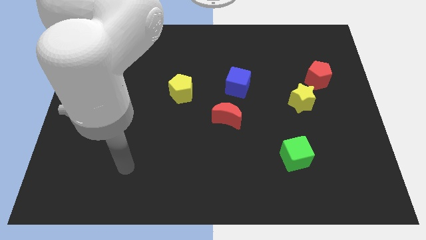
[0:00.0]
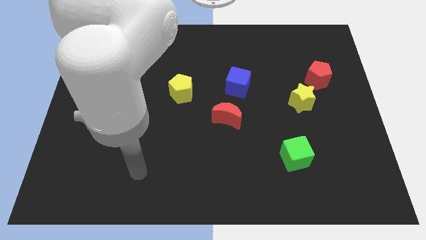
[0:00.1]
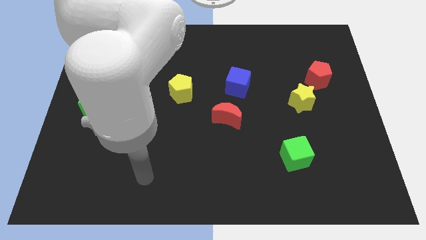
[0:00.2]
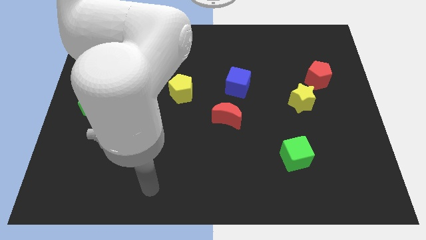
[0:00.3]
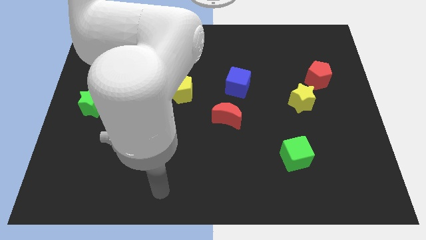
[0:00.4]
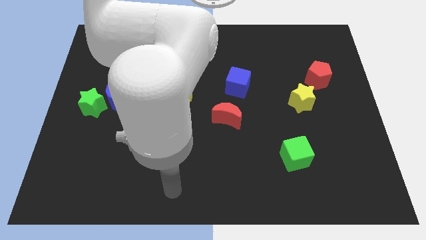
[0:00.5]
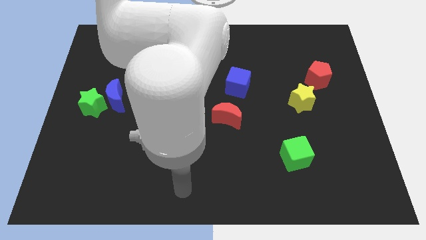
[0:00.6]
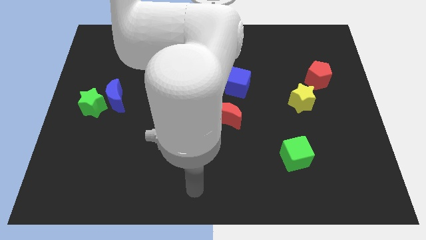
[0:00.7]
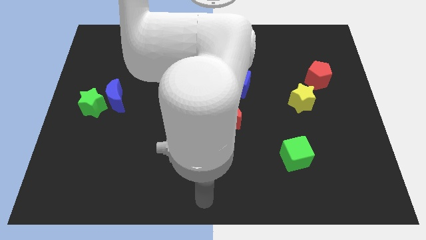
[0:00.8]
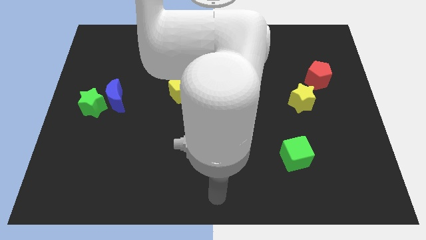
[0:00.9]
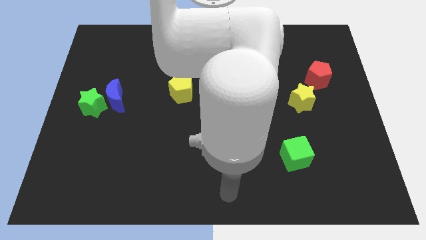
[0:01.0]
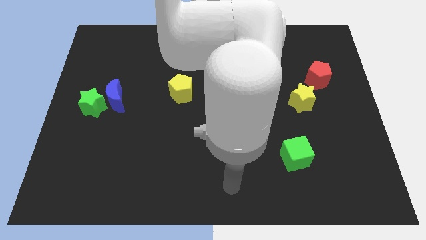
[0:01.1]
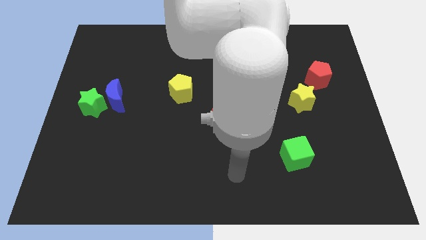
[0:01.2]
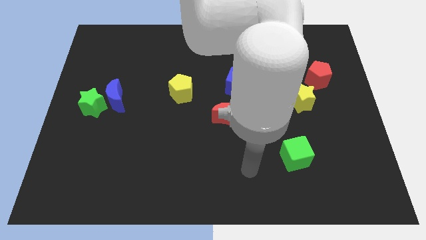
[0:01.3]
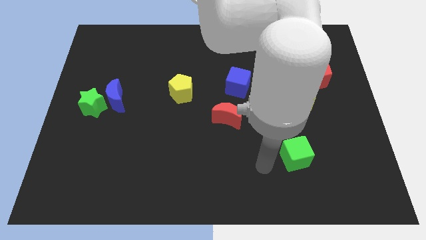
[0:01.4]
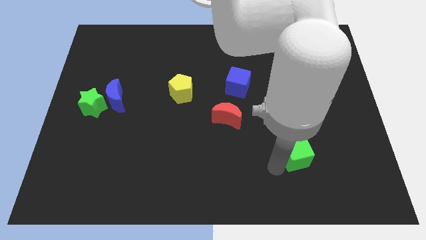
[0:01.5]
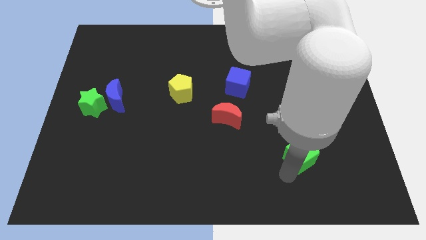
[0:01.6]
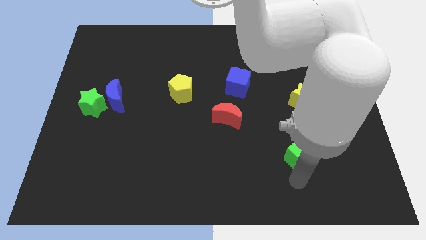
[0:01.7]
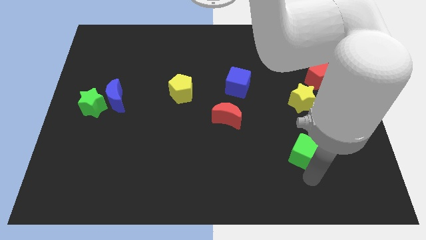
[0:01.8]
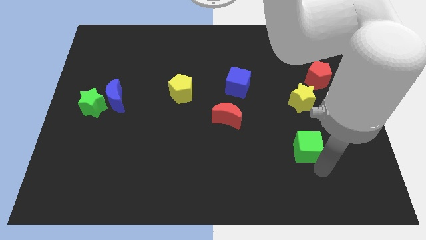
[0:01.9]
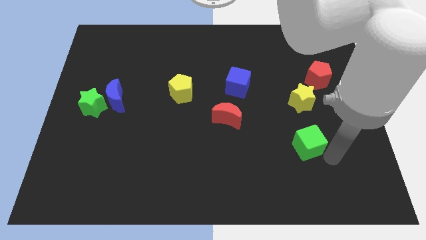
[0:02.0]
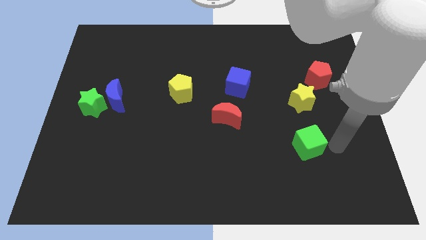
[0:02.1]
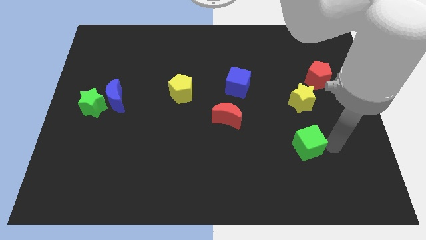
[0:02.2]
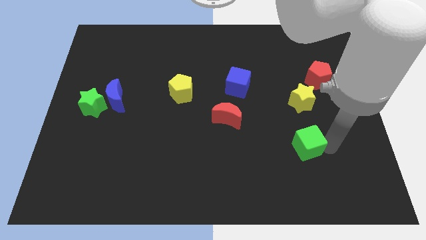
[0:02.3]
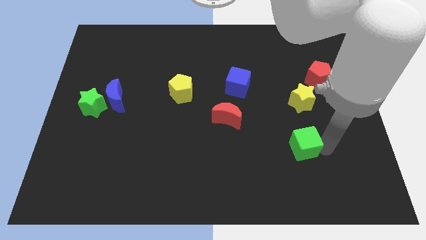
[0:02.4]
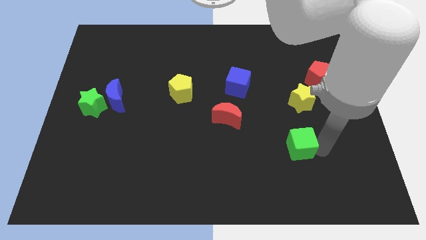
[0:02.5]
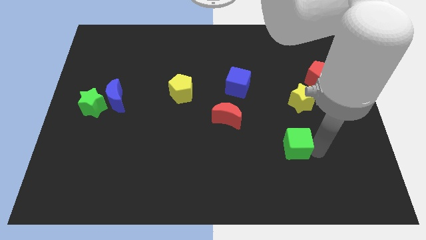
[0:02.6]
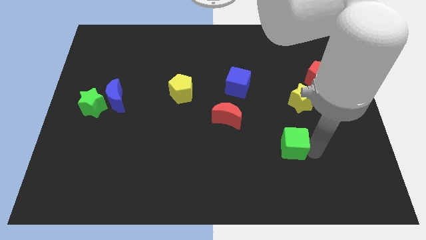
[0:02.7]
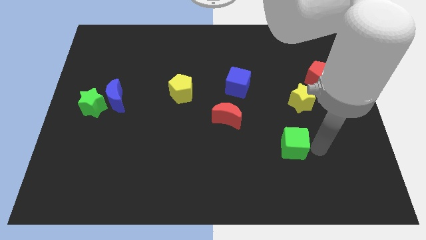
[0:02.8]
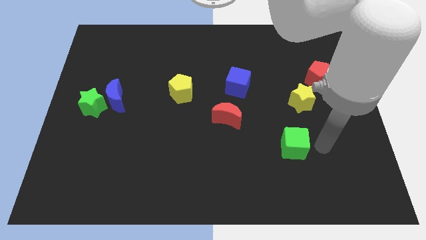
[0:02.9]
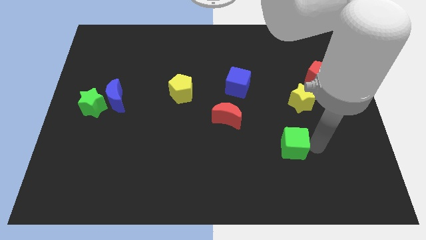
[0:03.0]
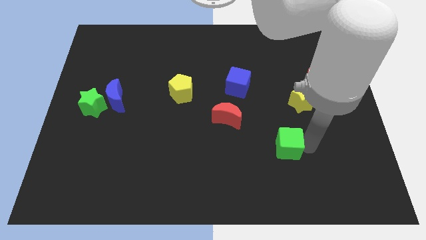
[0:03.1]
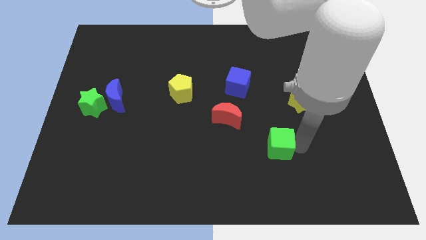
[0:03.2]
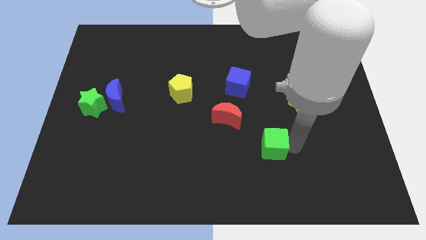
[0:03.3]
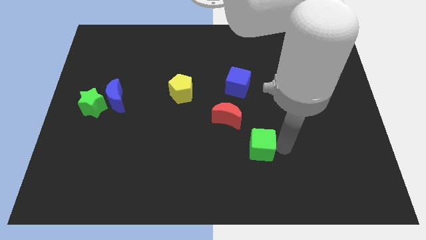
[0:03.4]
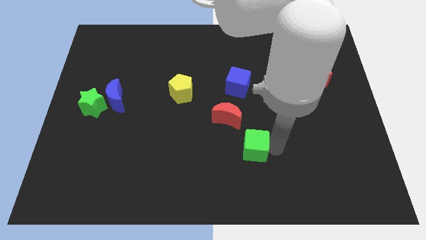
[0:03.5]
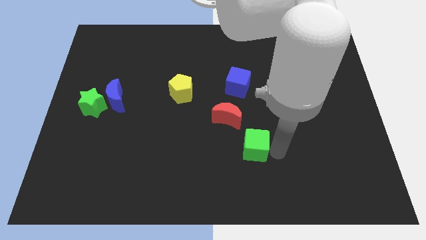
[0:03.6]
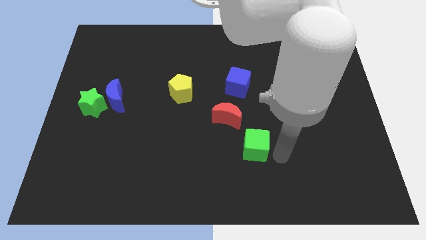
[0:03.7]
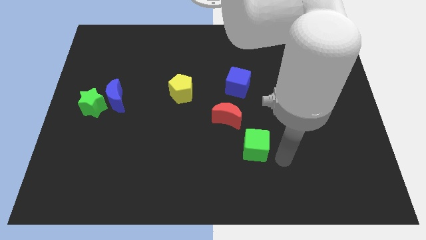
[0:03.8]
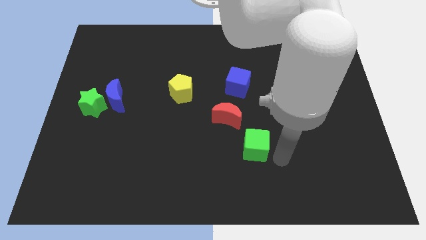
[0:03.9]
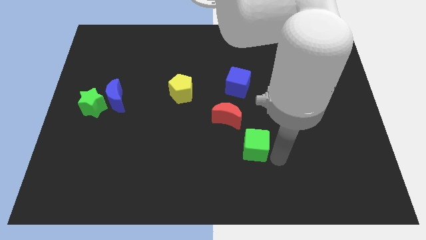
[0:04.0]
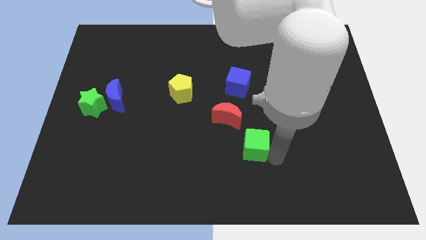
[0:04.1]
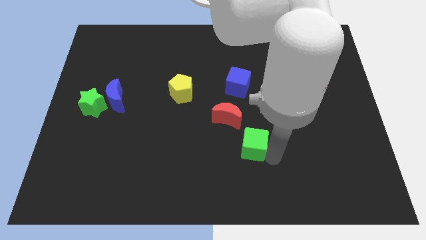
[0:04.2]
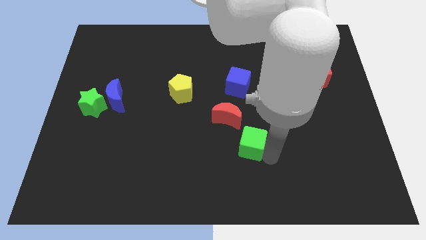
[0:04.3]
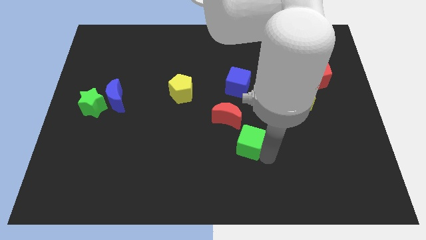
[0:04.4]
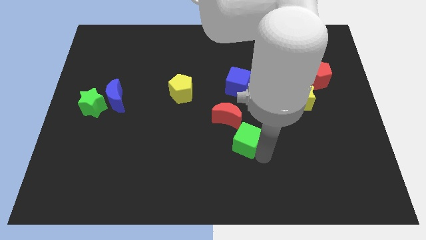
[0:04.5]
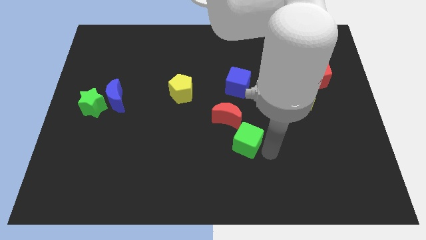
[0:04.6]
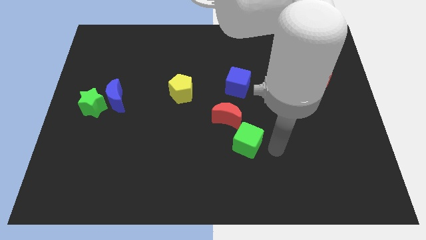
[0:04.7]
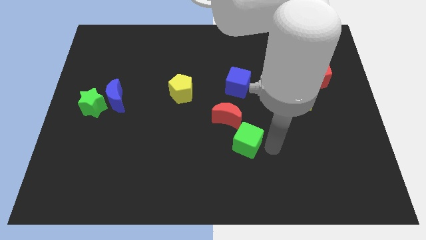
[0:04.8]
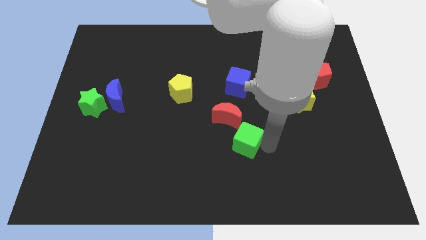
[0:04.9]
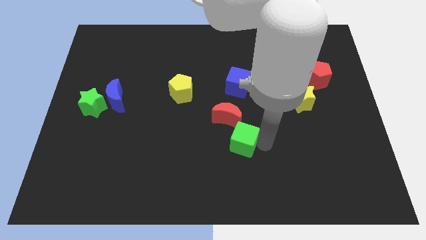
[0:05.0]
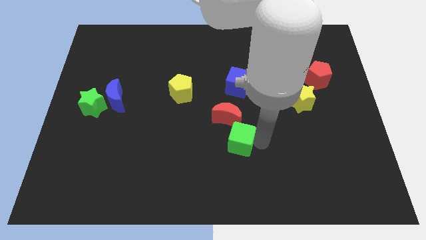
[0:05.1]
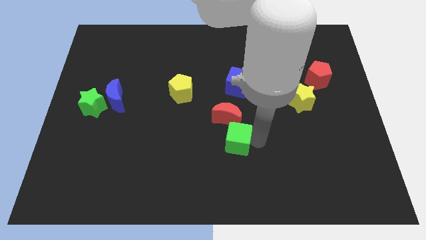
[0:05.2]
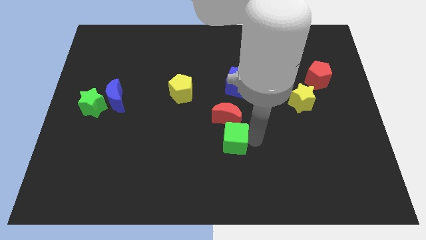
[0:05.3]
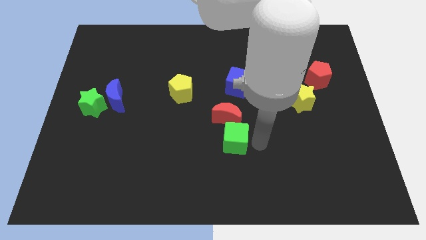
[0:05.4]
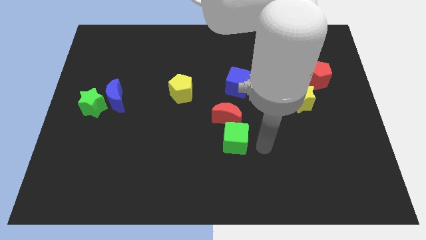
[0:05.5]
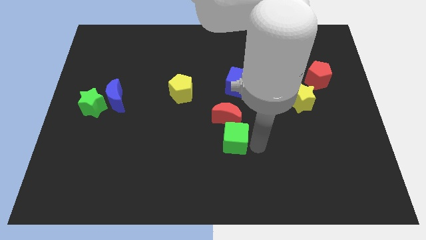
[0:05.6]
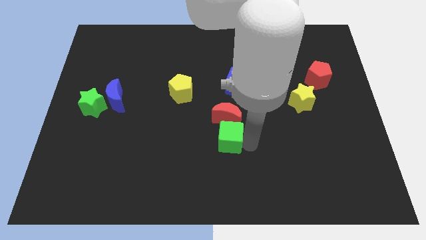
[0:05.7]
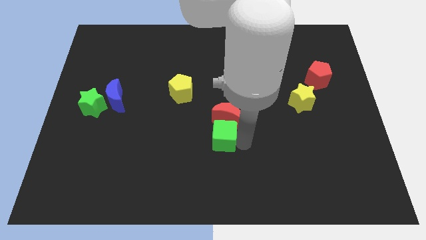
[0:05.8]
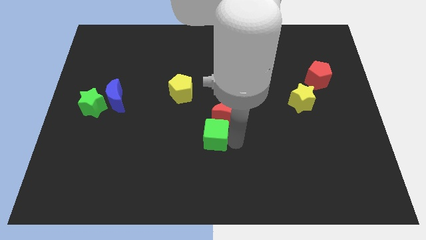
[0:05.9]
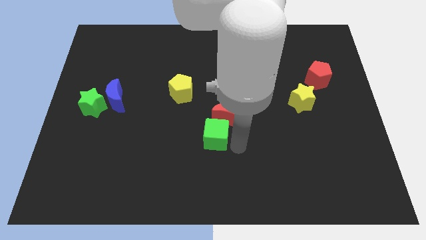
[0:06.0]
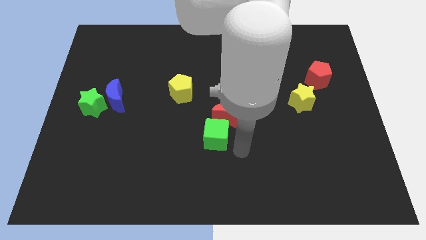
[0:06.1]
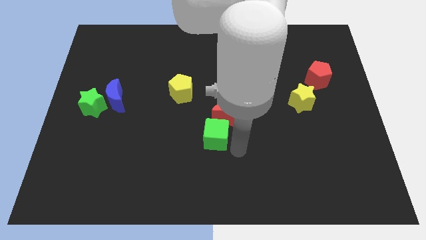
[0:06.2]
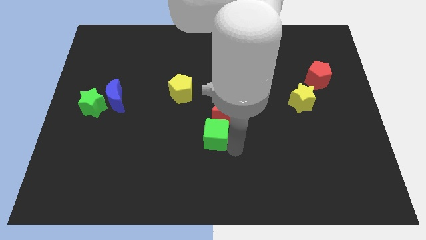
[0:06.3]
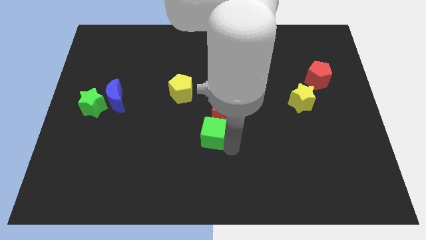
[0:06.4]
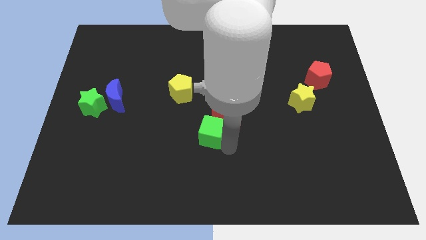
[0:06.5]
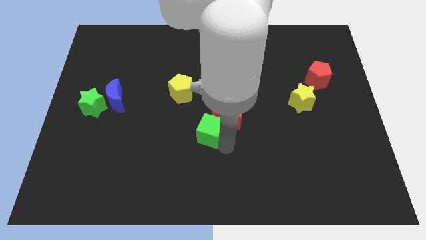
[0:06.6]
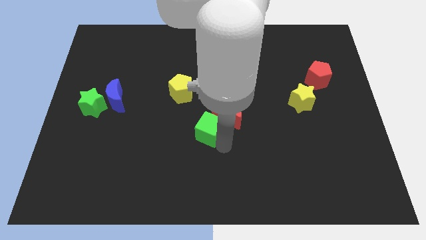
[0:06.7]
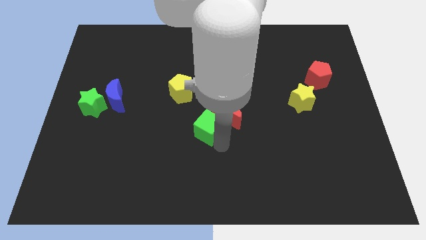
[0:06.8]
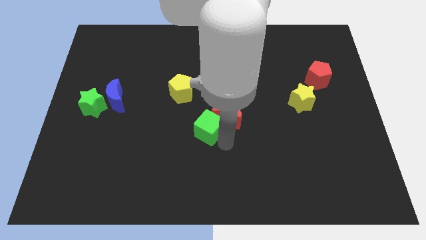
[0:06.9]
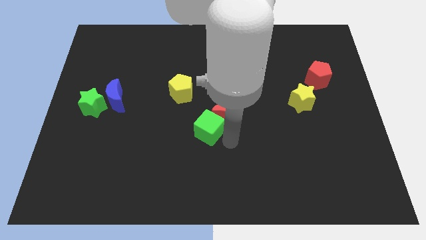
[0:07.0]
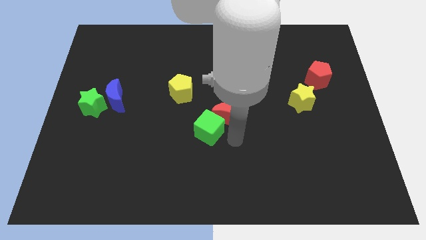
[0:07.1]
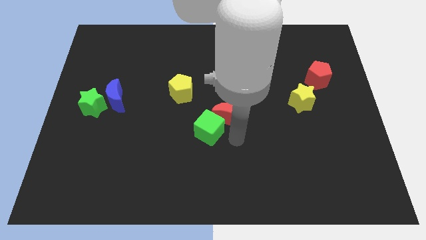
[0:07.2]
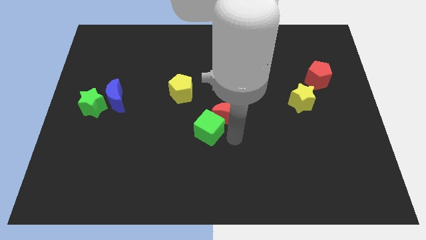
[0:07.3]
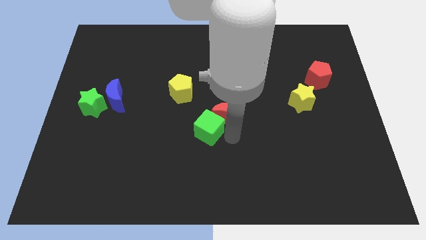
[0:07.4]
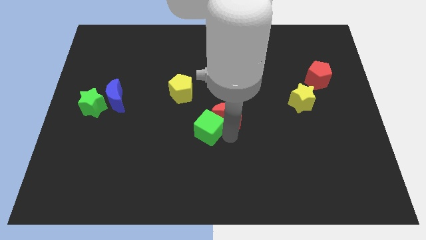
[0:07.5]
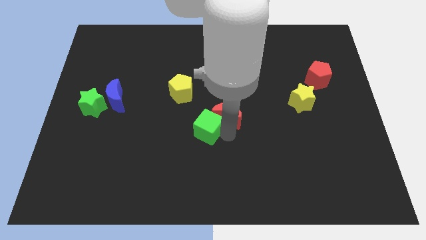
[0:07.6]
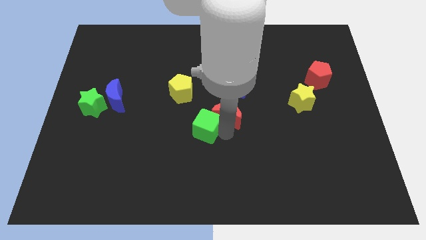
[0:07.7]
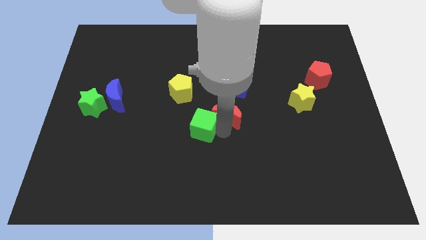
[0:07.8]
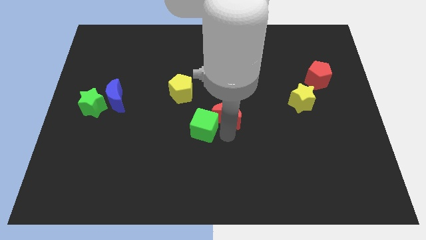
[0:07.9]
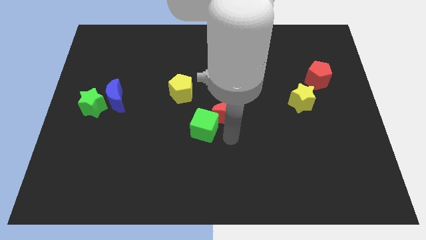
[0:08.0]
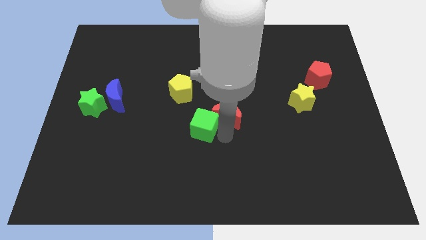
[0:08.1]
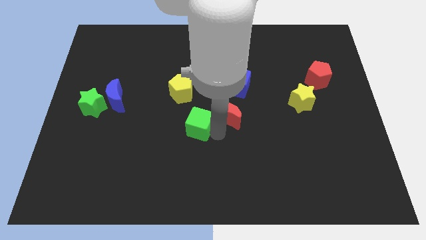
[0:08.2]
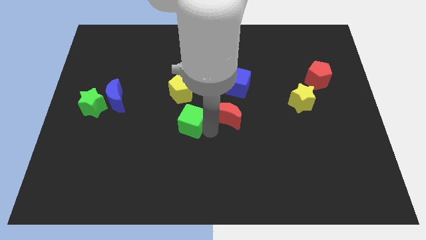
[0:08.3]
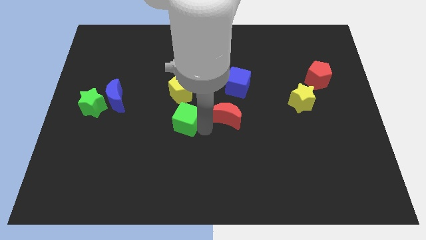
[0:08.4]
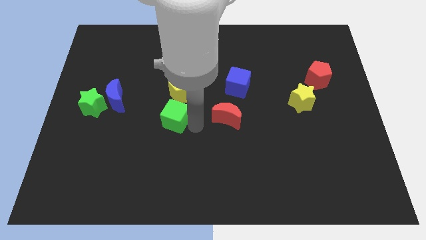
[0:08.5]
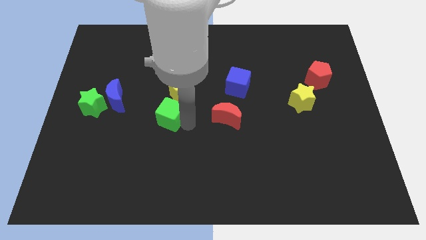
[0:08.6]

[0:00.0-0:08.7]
slide the green cube diagonally down and to the left of the yellow pentagon
